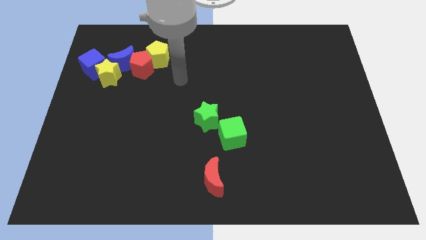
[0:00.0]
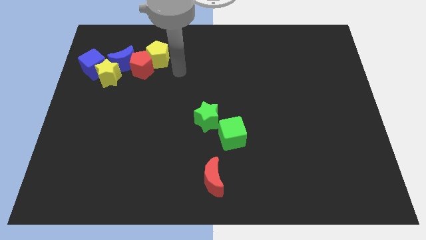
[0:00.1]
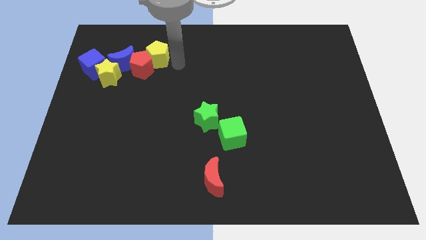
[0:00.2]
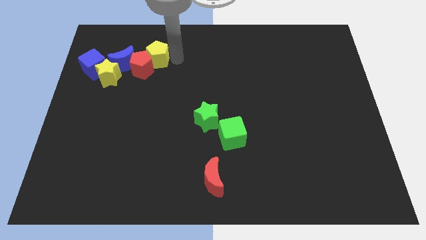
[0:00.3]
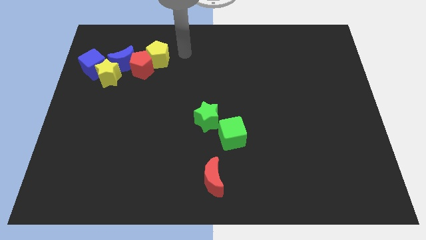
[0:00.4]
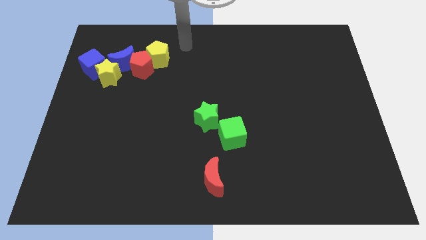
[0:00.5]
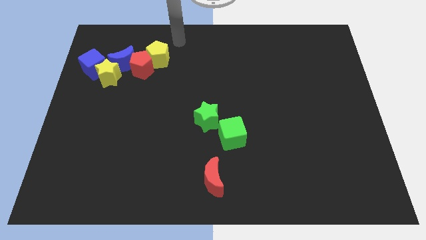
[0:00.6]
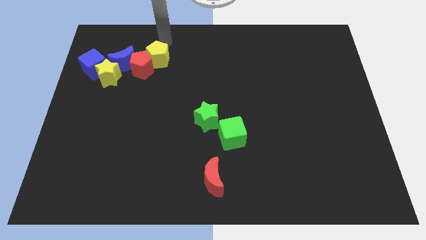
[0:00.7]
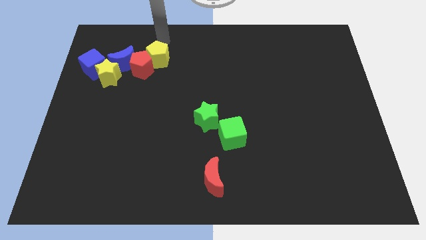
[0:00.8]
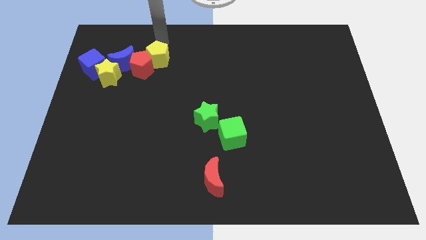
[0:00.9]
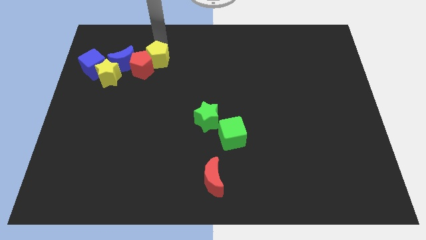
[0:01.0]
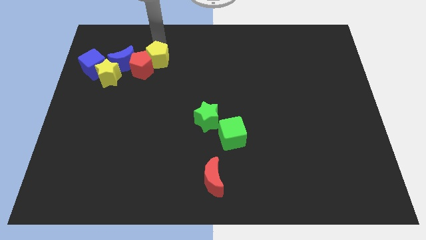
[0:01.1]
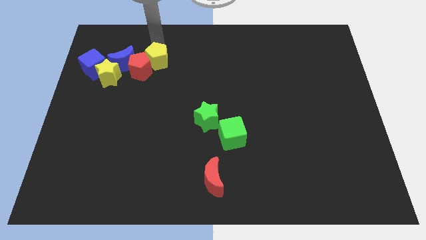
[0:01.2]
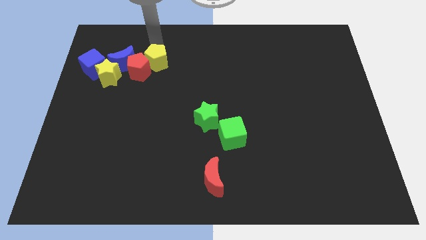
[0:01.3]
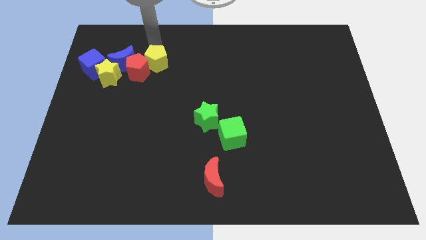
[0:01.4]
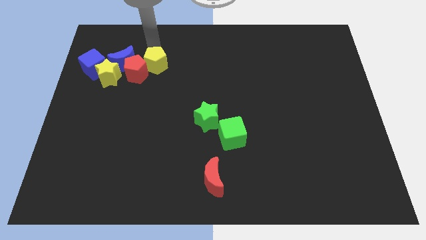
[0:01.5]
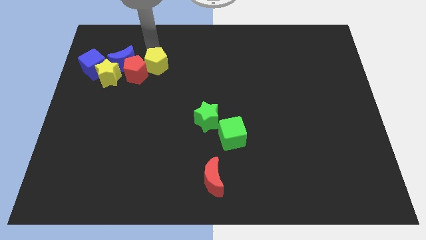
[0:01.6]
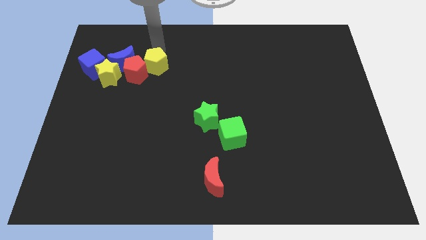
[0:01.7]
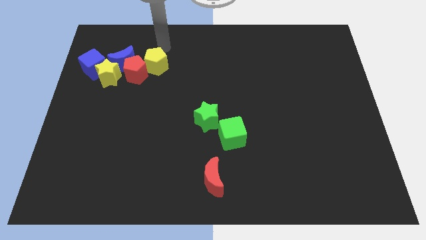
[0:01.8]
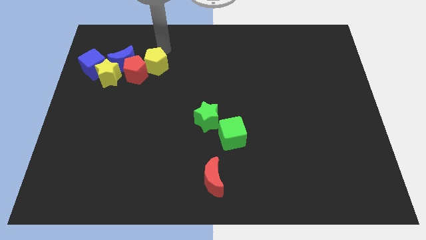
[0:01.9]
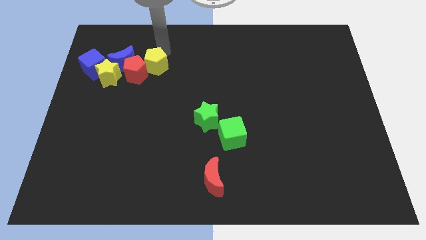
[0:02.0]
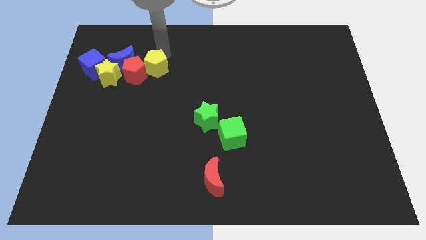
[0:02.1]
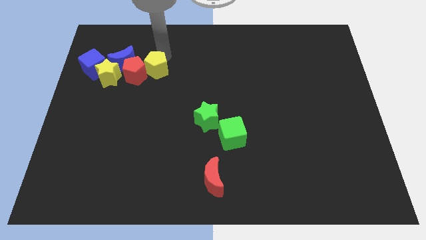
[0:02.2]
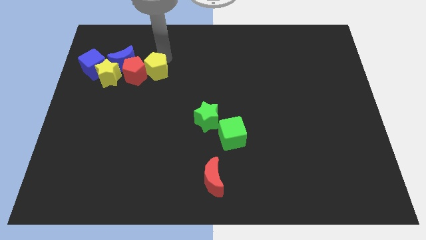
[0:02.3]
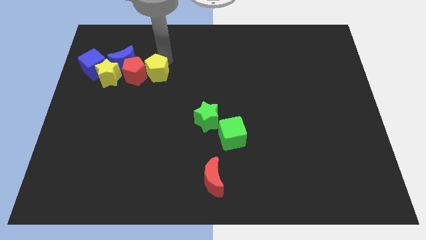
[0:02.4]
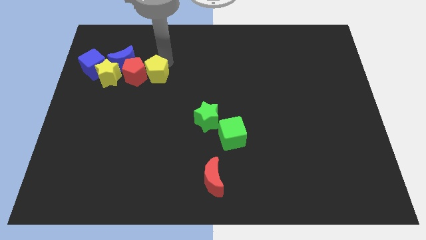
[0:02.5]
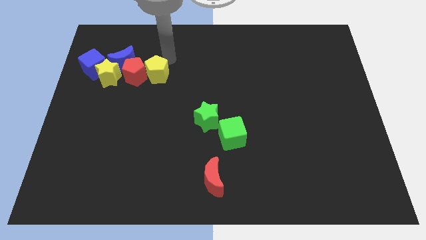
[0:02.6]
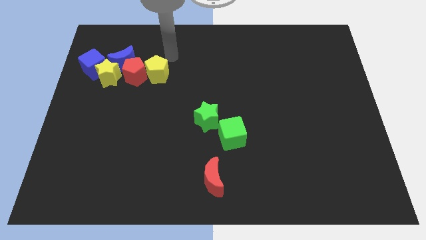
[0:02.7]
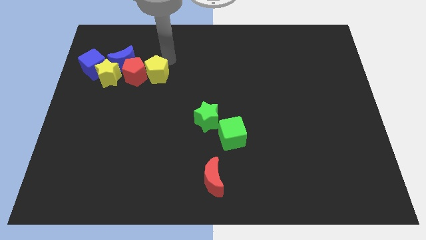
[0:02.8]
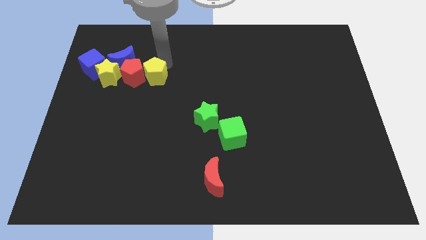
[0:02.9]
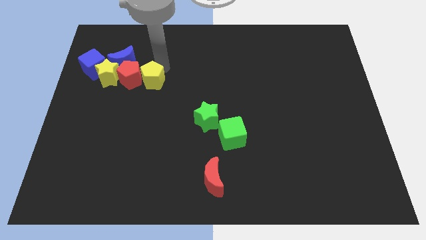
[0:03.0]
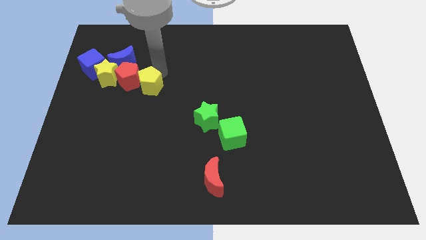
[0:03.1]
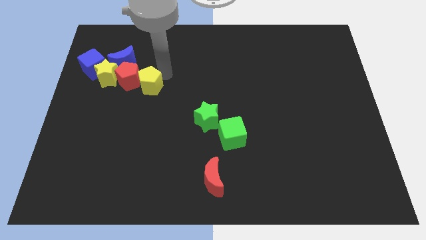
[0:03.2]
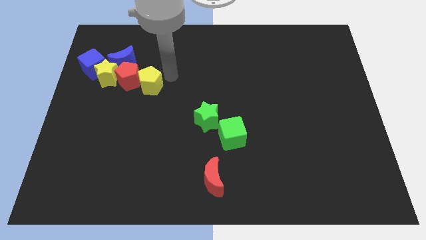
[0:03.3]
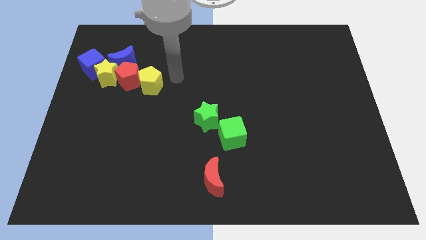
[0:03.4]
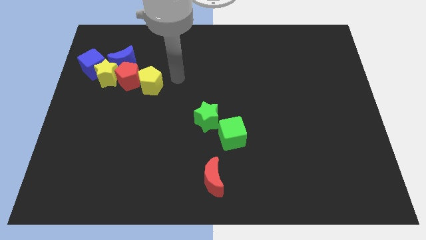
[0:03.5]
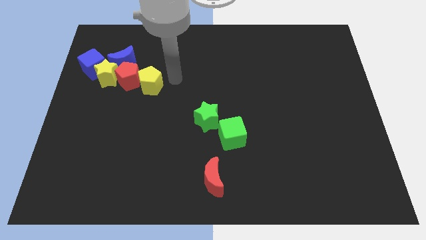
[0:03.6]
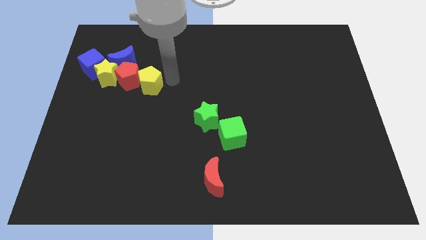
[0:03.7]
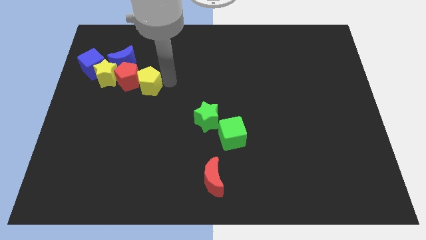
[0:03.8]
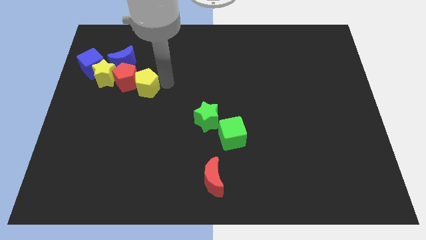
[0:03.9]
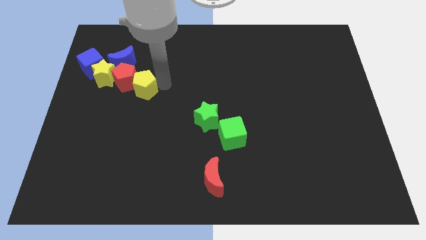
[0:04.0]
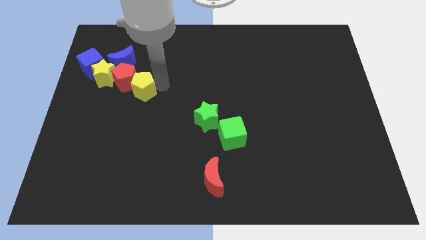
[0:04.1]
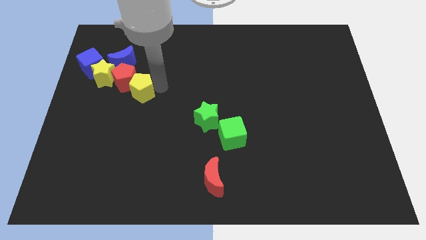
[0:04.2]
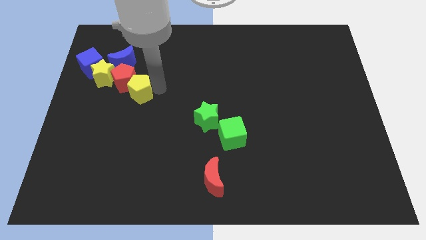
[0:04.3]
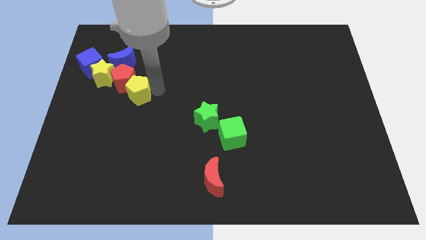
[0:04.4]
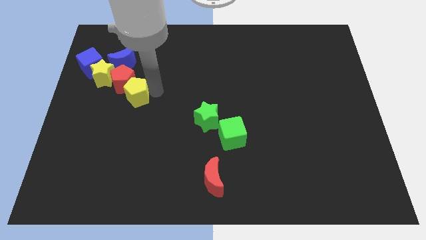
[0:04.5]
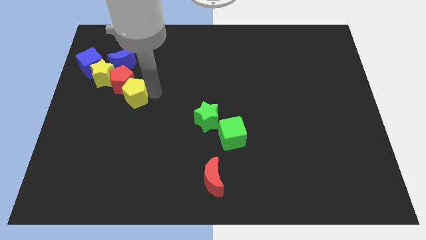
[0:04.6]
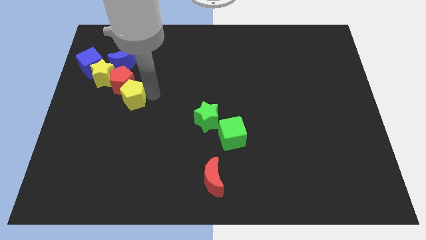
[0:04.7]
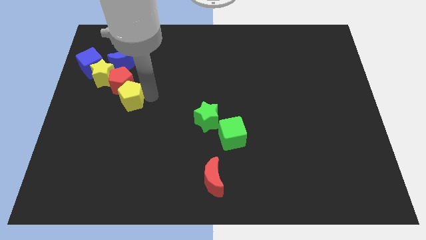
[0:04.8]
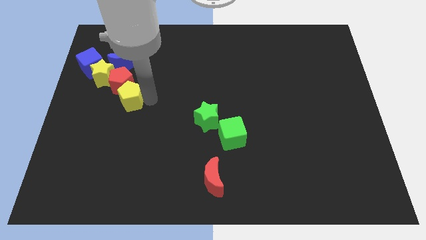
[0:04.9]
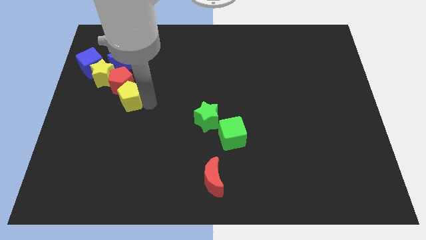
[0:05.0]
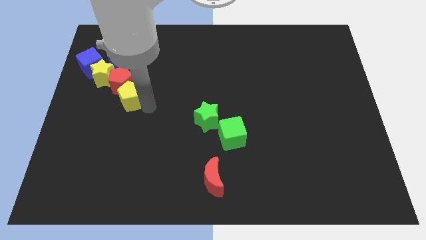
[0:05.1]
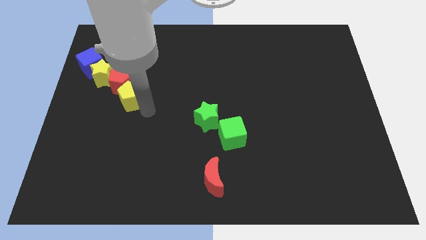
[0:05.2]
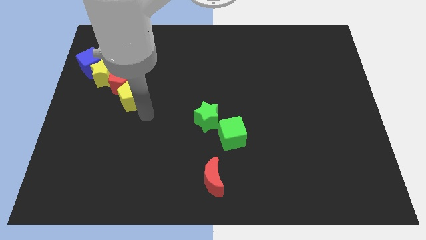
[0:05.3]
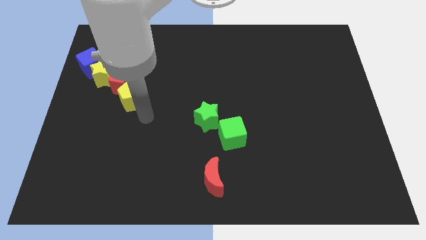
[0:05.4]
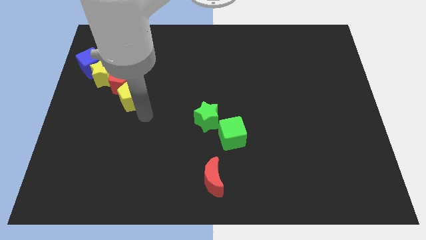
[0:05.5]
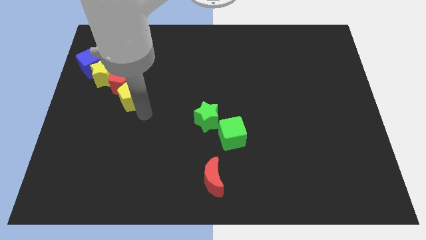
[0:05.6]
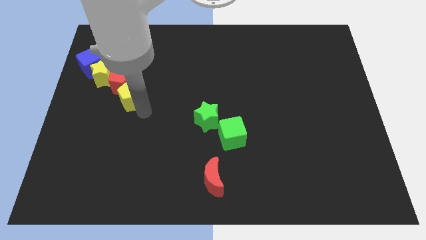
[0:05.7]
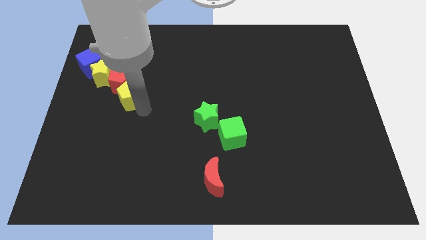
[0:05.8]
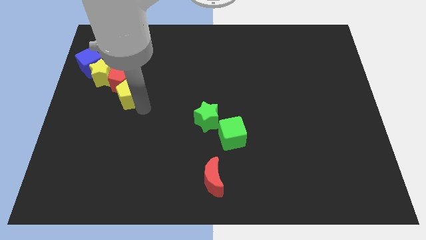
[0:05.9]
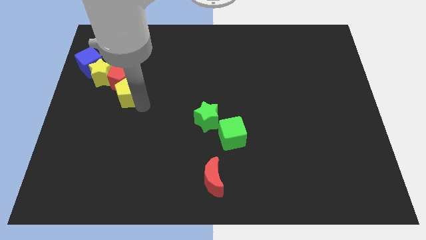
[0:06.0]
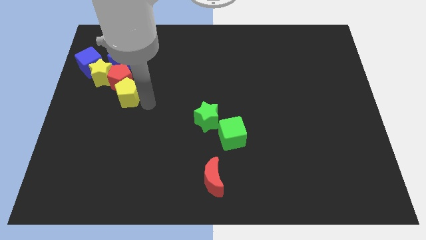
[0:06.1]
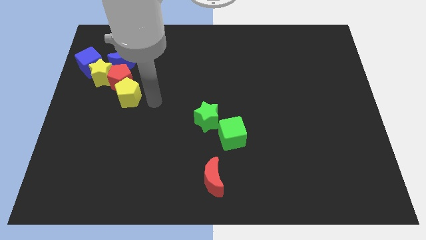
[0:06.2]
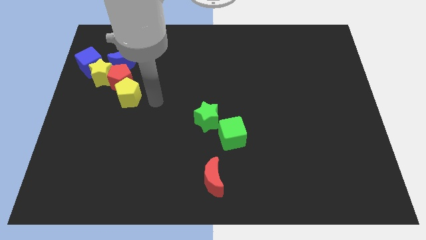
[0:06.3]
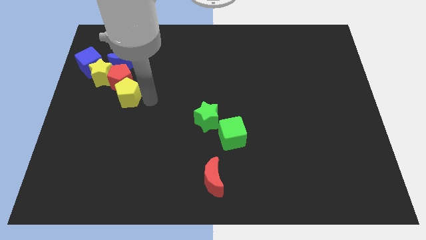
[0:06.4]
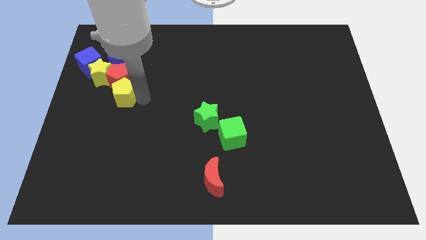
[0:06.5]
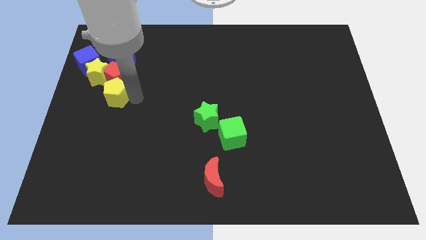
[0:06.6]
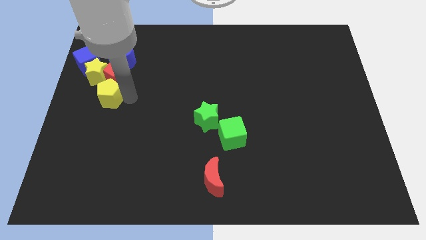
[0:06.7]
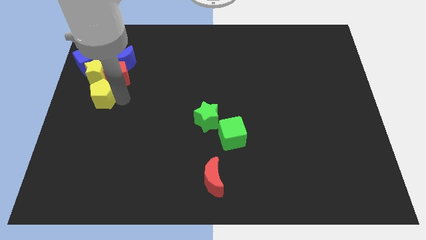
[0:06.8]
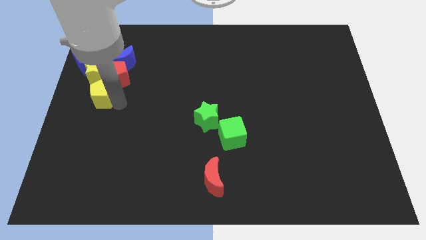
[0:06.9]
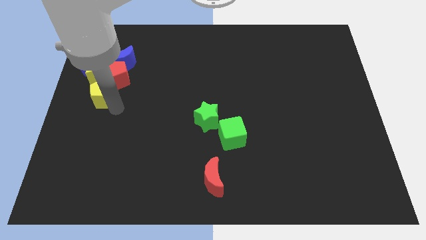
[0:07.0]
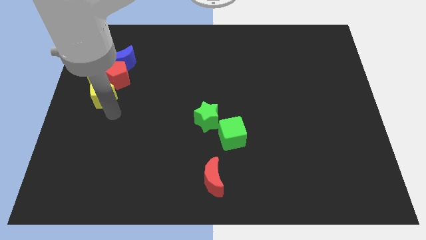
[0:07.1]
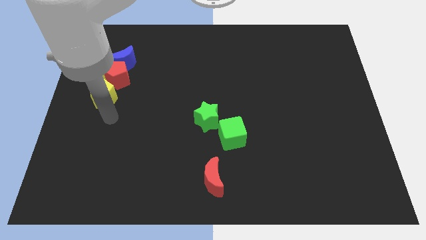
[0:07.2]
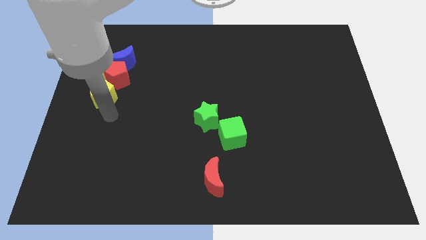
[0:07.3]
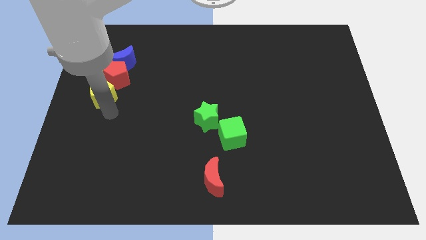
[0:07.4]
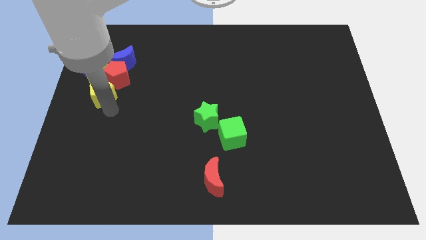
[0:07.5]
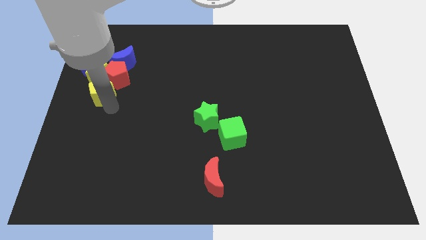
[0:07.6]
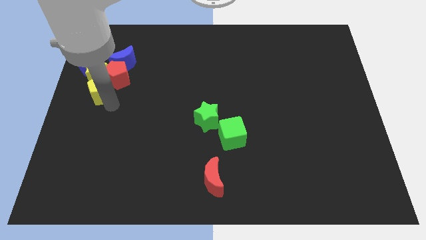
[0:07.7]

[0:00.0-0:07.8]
put the yellow pentagon to the bottom left of the blue moon
